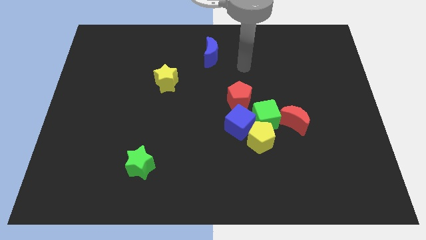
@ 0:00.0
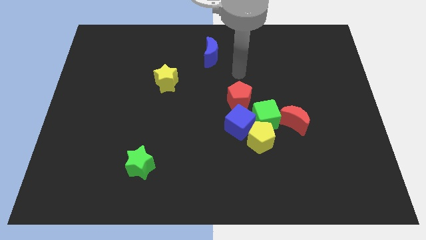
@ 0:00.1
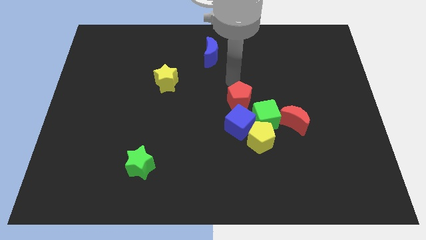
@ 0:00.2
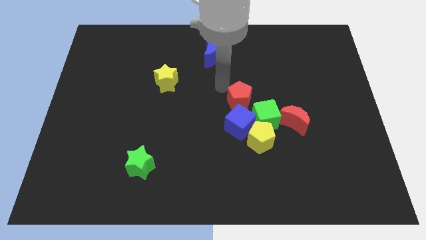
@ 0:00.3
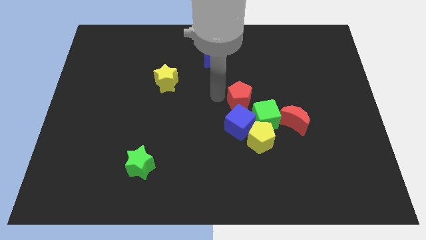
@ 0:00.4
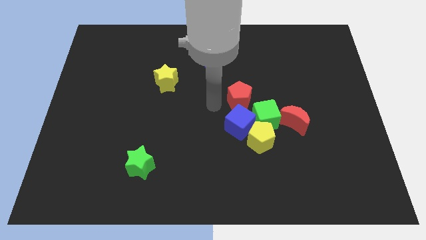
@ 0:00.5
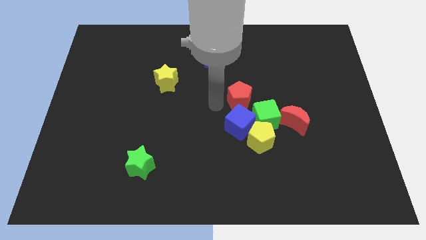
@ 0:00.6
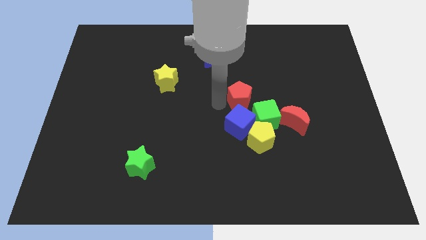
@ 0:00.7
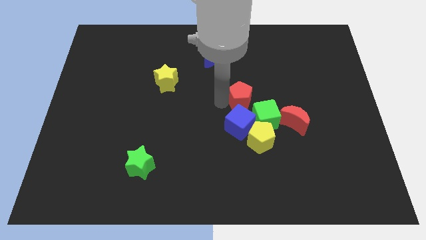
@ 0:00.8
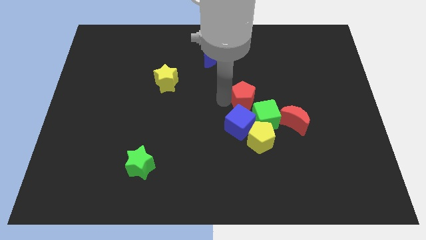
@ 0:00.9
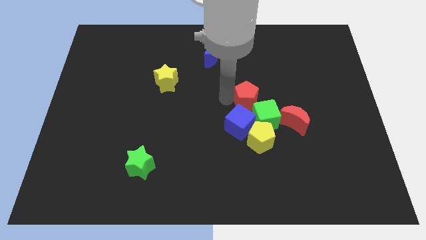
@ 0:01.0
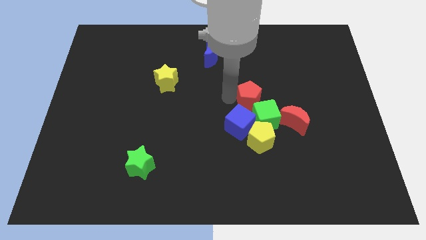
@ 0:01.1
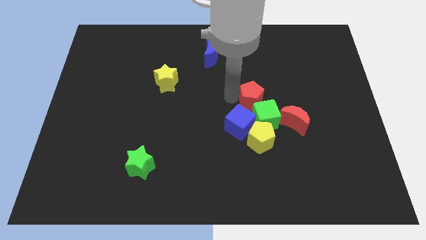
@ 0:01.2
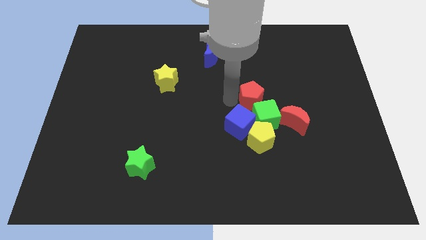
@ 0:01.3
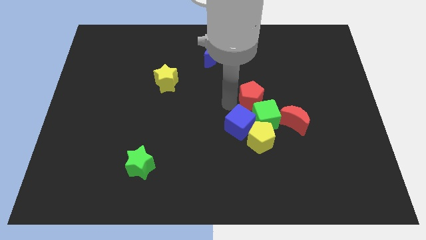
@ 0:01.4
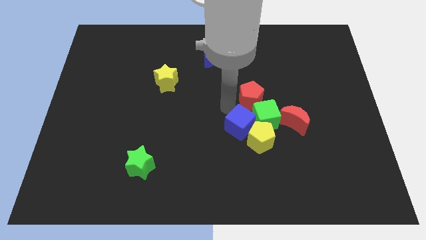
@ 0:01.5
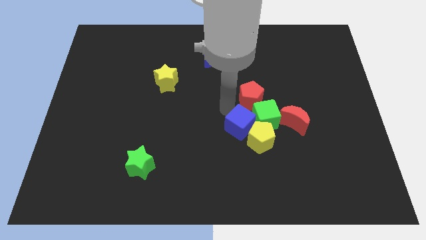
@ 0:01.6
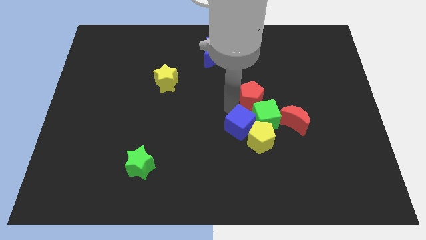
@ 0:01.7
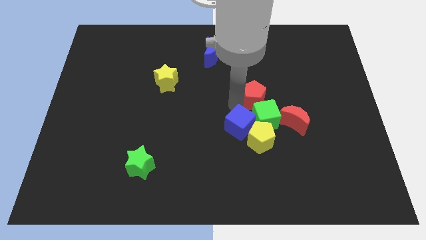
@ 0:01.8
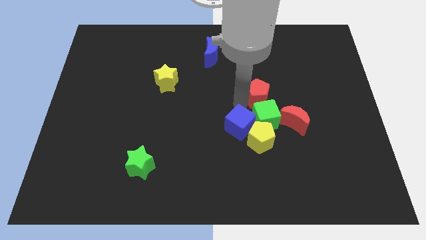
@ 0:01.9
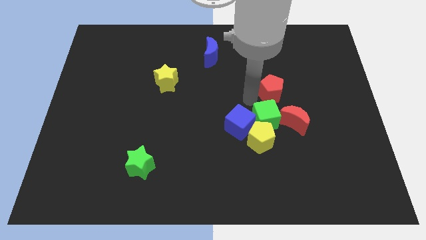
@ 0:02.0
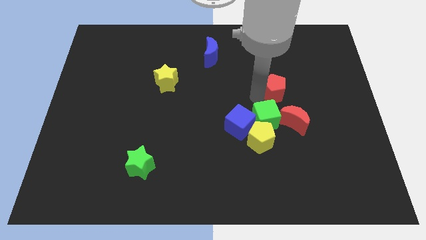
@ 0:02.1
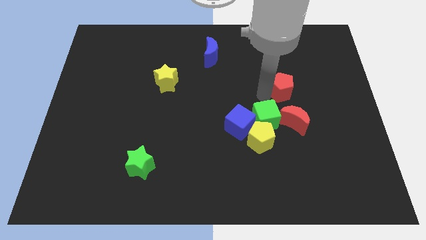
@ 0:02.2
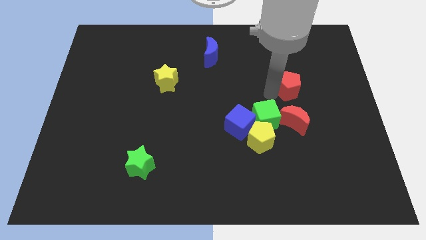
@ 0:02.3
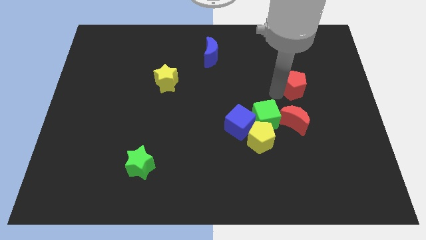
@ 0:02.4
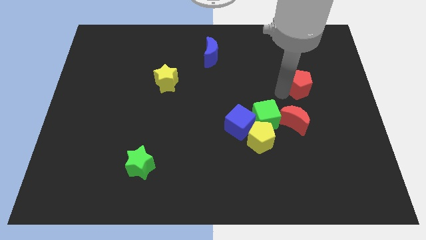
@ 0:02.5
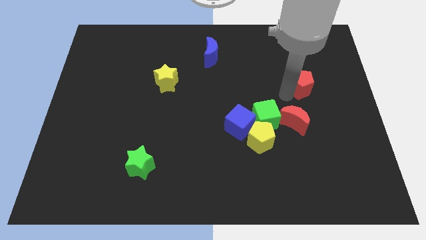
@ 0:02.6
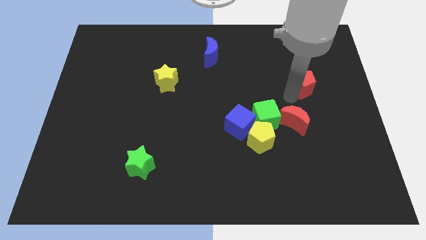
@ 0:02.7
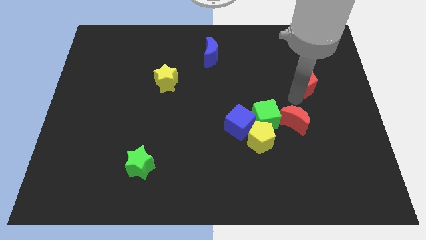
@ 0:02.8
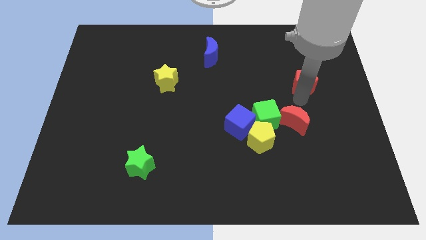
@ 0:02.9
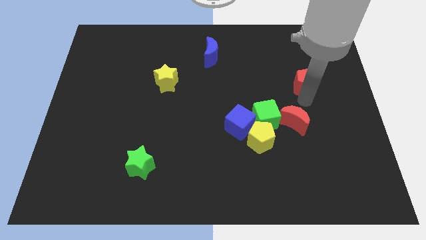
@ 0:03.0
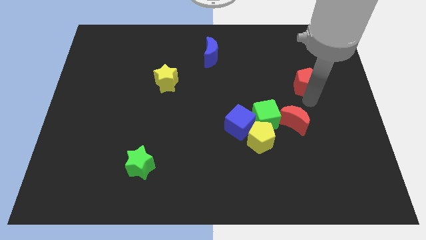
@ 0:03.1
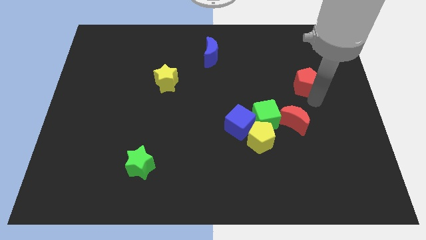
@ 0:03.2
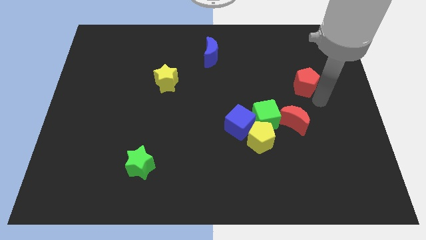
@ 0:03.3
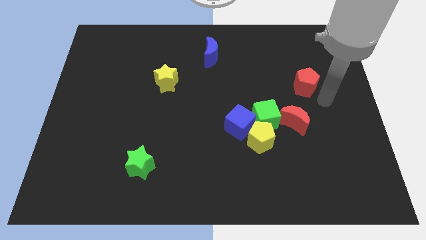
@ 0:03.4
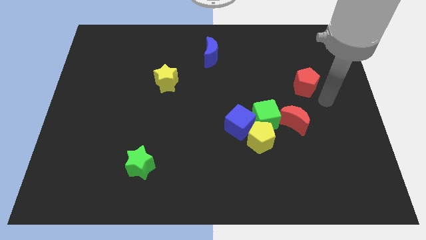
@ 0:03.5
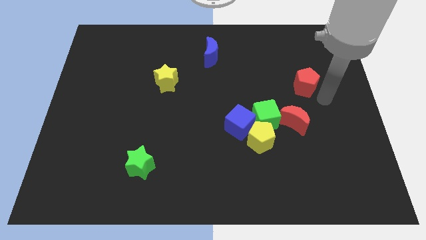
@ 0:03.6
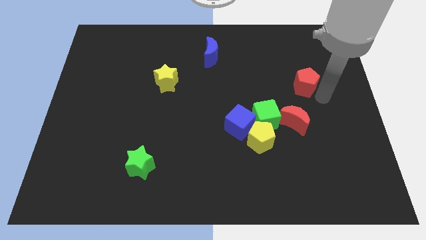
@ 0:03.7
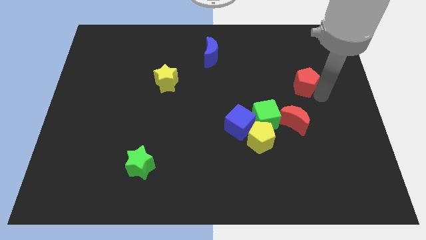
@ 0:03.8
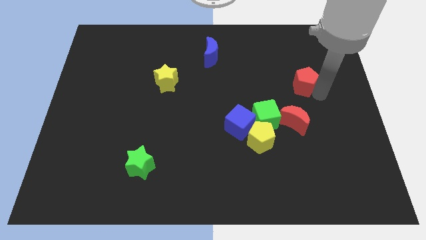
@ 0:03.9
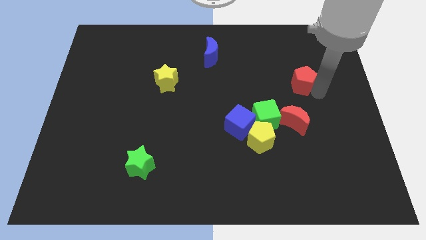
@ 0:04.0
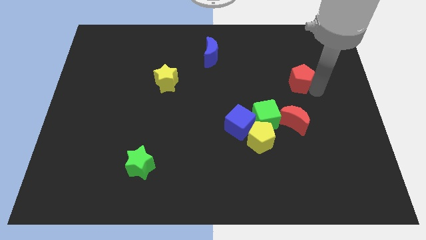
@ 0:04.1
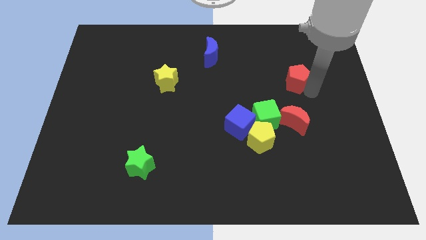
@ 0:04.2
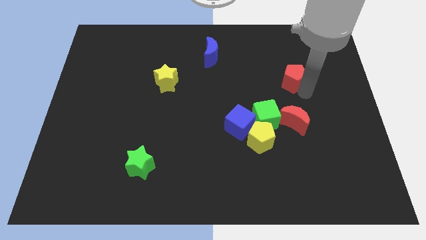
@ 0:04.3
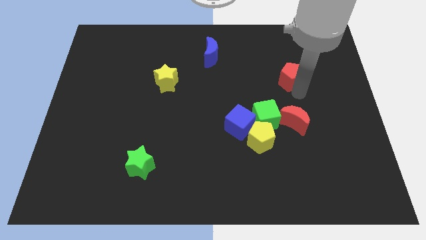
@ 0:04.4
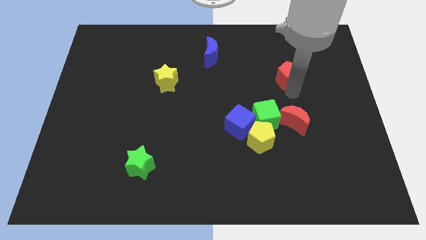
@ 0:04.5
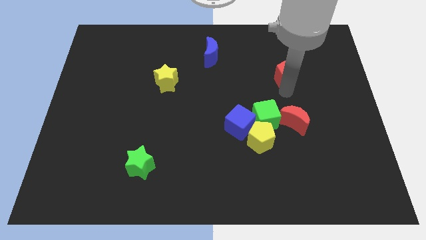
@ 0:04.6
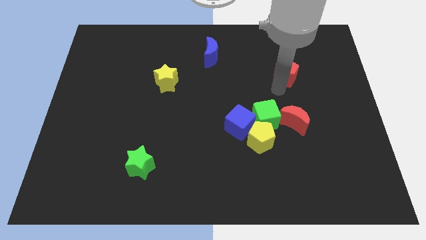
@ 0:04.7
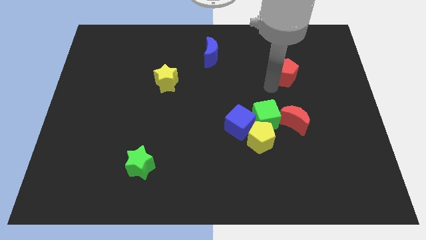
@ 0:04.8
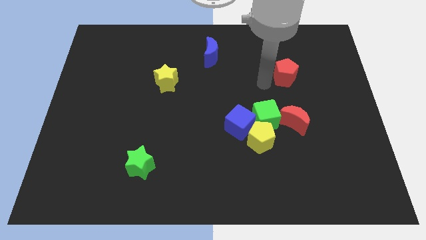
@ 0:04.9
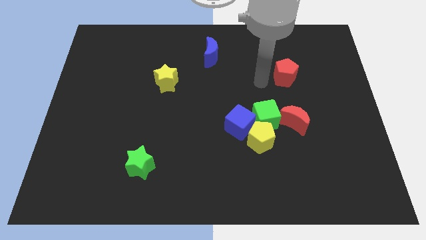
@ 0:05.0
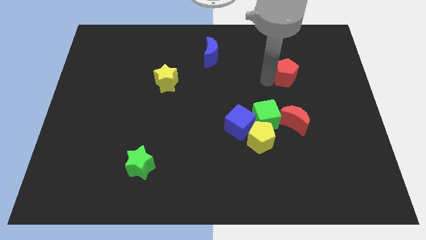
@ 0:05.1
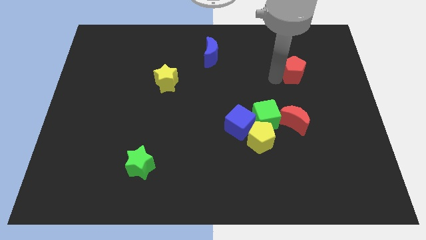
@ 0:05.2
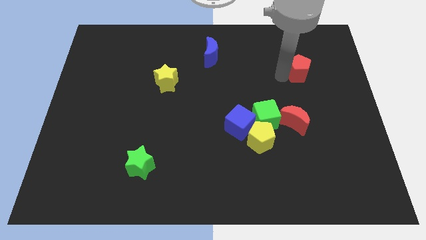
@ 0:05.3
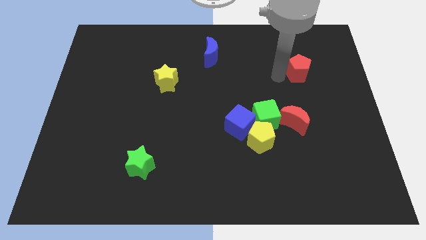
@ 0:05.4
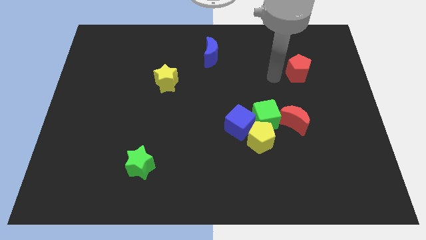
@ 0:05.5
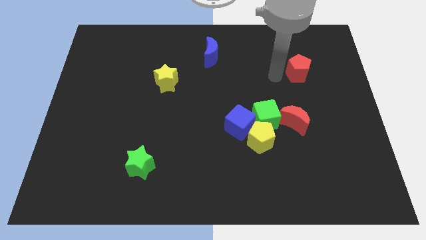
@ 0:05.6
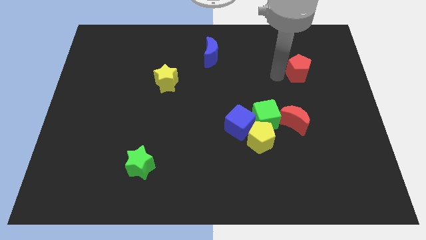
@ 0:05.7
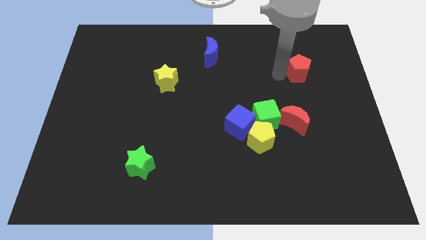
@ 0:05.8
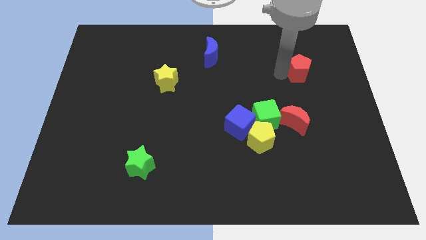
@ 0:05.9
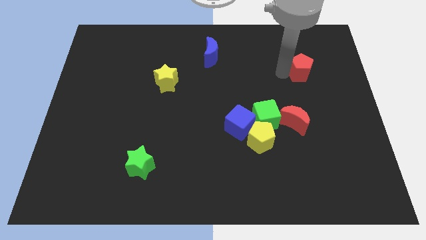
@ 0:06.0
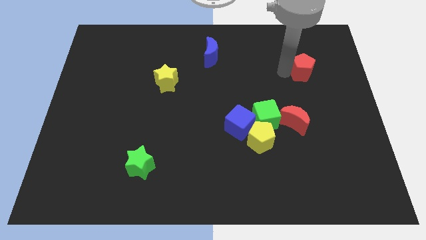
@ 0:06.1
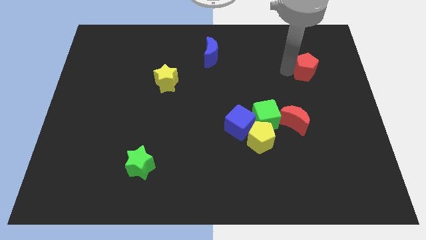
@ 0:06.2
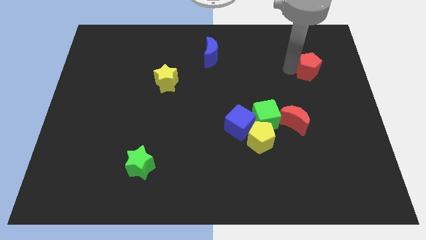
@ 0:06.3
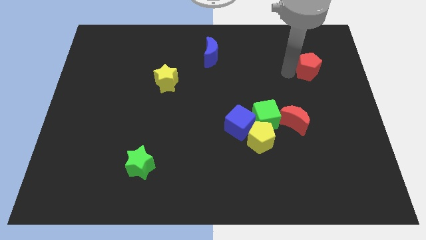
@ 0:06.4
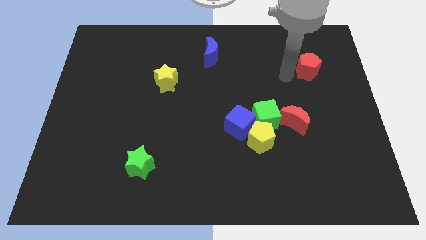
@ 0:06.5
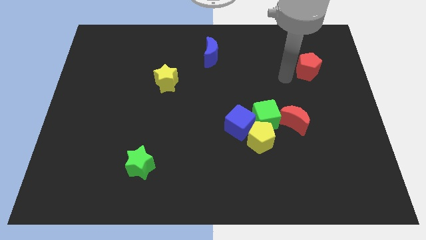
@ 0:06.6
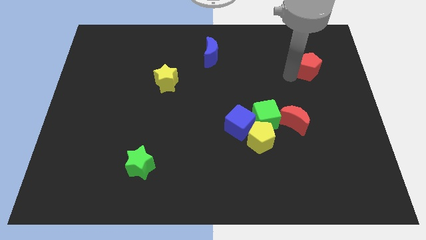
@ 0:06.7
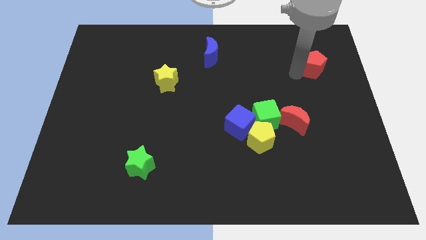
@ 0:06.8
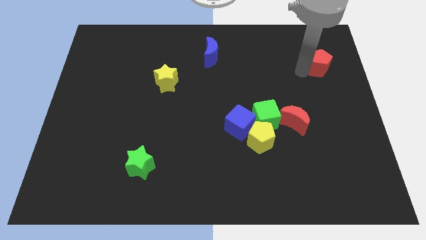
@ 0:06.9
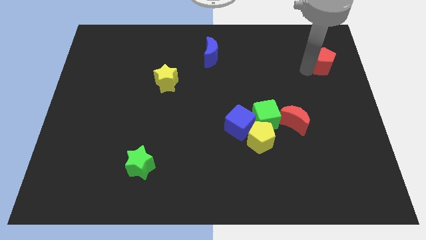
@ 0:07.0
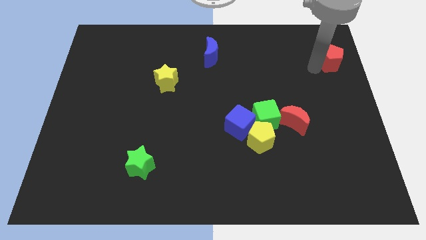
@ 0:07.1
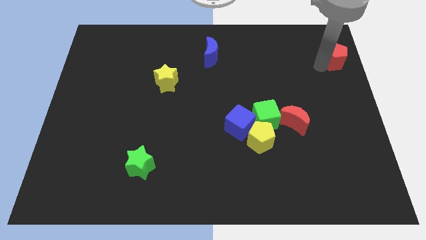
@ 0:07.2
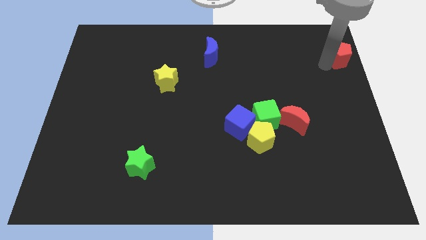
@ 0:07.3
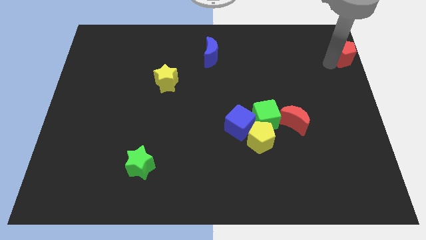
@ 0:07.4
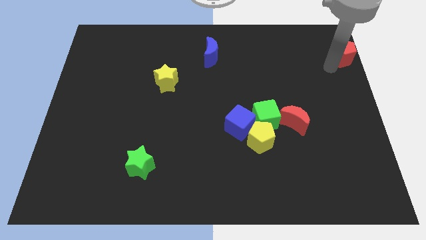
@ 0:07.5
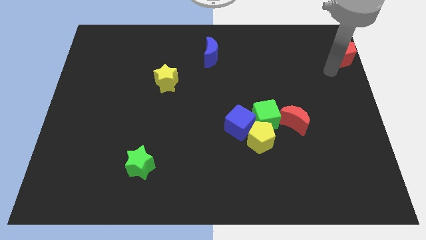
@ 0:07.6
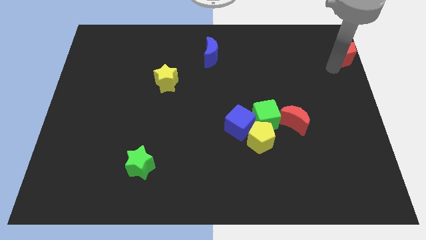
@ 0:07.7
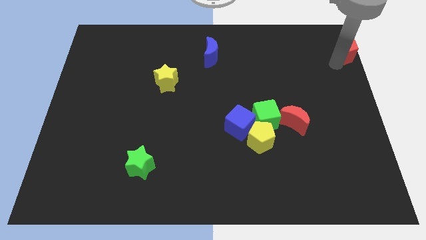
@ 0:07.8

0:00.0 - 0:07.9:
move the red pentagon to the top right corner
